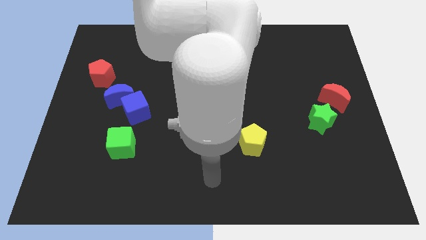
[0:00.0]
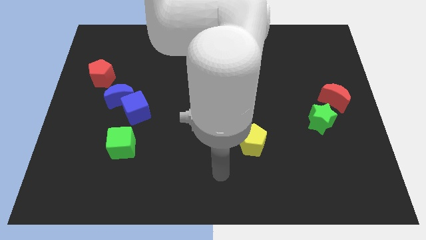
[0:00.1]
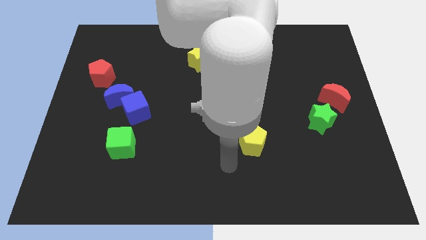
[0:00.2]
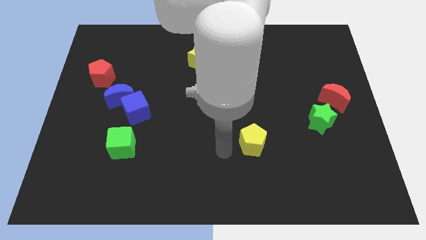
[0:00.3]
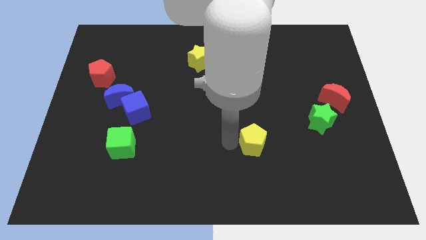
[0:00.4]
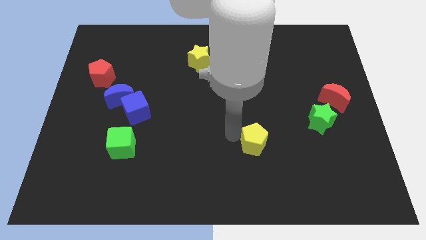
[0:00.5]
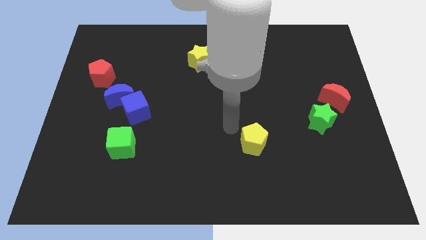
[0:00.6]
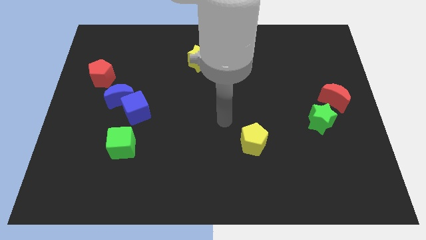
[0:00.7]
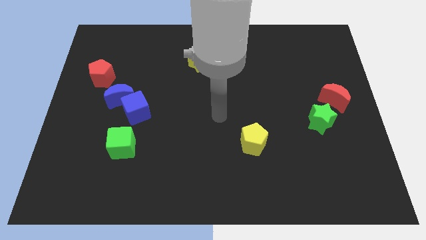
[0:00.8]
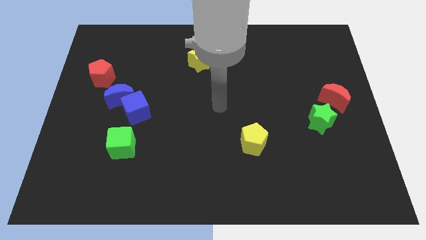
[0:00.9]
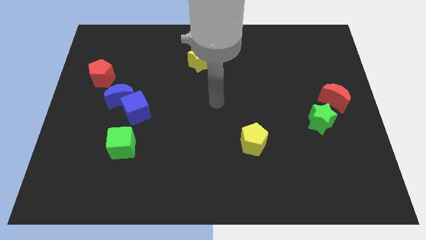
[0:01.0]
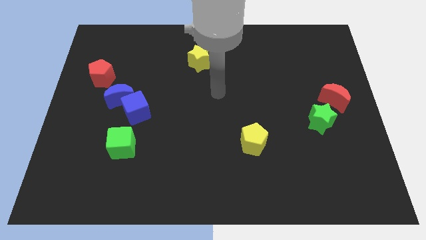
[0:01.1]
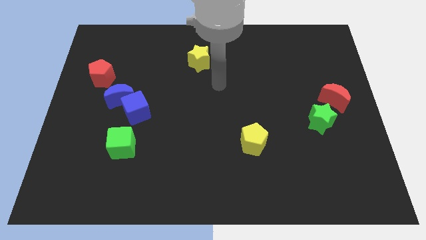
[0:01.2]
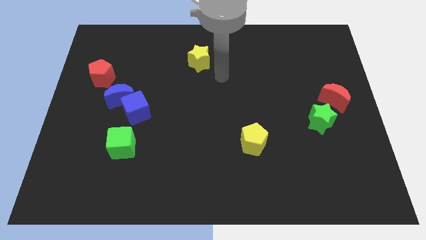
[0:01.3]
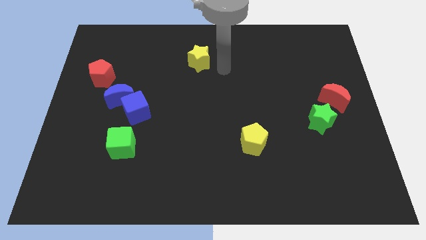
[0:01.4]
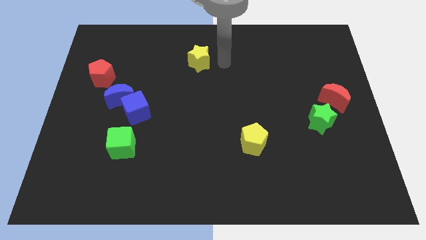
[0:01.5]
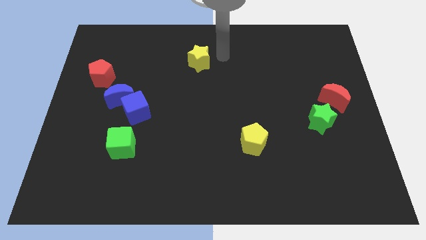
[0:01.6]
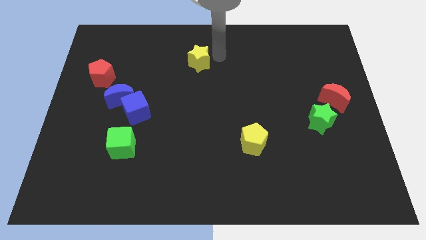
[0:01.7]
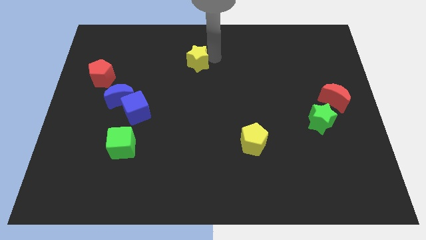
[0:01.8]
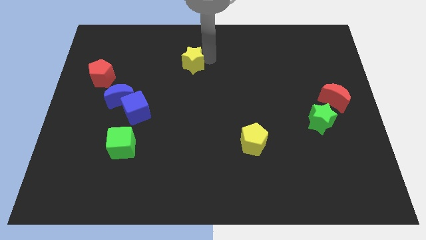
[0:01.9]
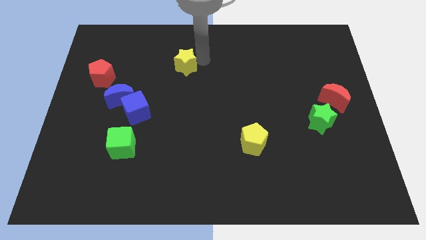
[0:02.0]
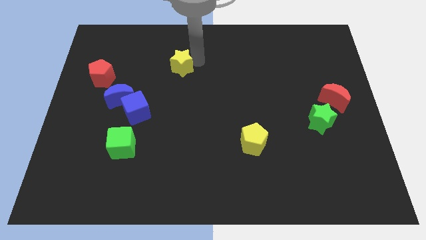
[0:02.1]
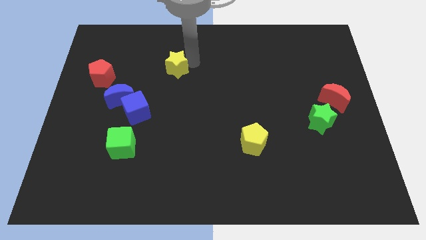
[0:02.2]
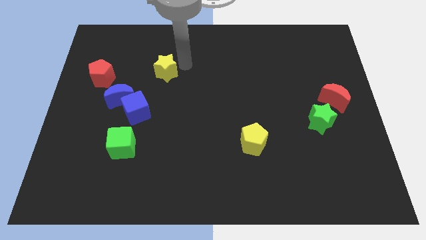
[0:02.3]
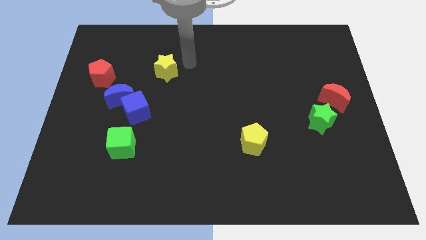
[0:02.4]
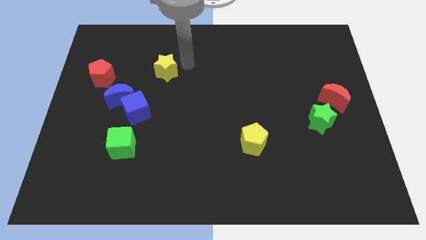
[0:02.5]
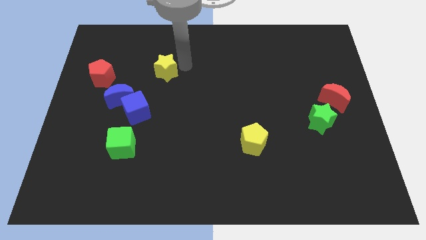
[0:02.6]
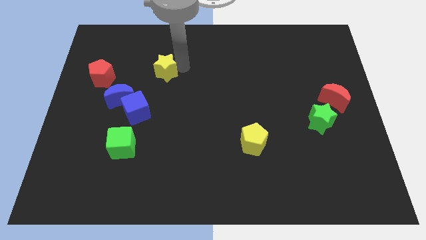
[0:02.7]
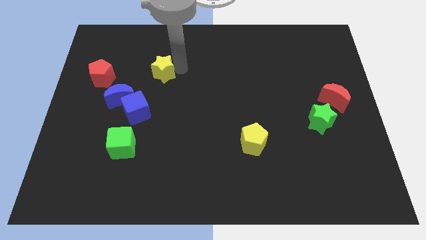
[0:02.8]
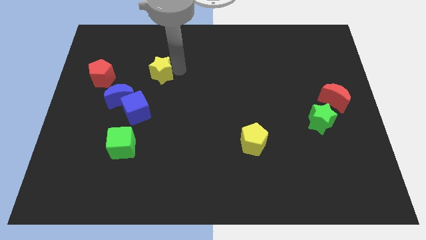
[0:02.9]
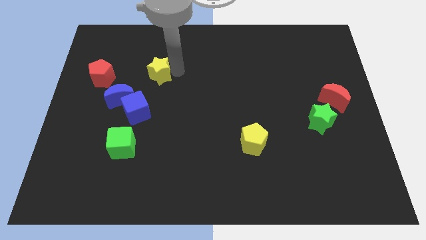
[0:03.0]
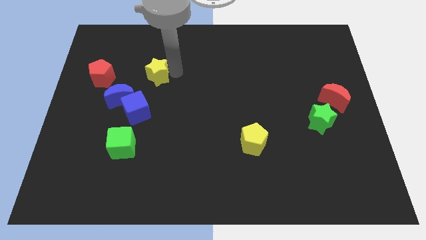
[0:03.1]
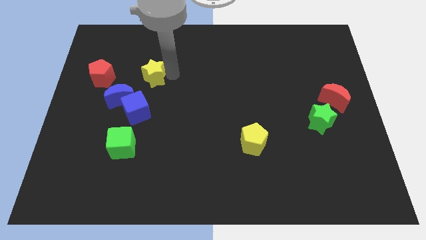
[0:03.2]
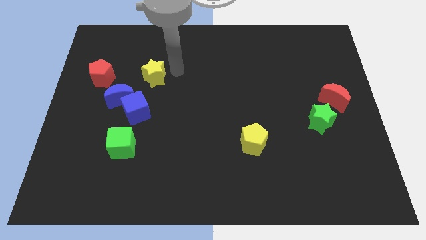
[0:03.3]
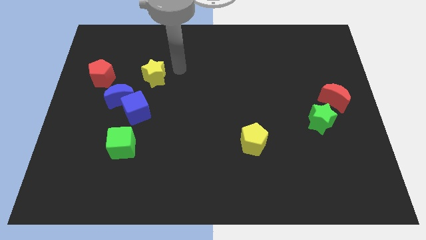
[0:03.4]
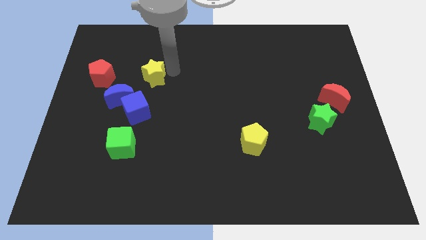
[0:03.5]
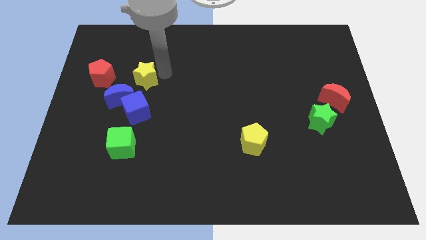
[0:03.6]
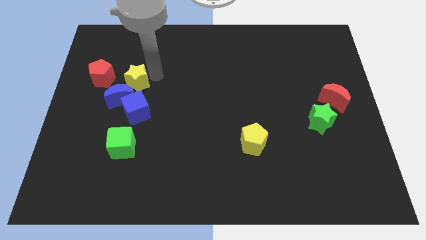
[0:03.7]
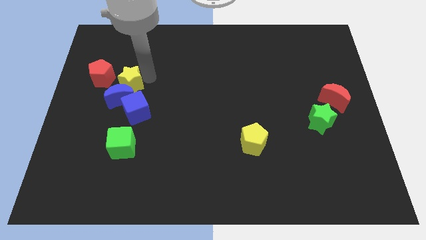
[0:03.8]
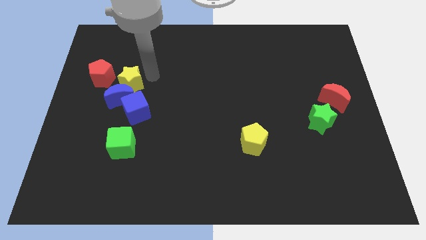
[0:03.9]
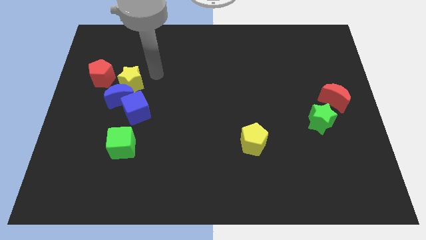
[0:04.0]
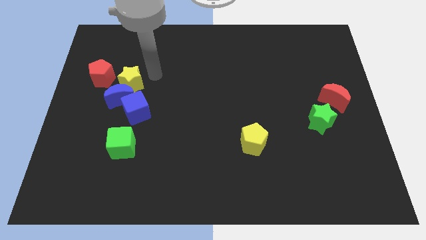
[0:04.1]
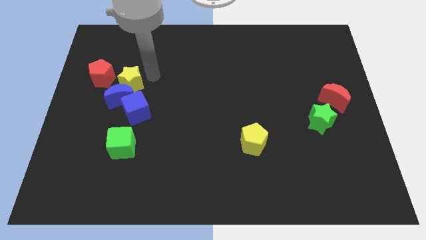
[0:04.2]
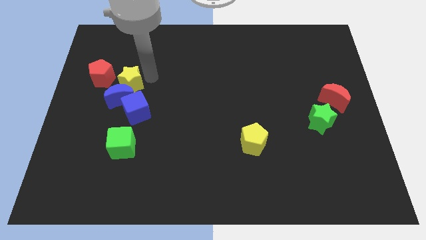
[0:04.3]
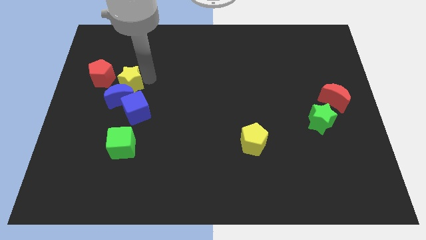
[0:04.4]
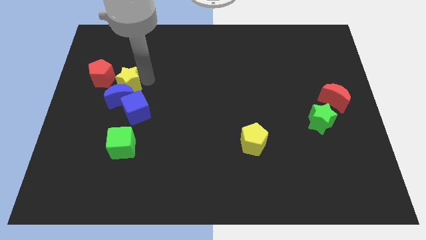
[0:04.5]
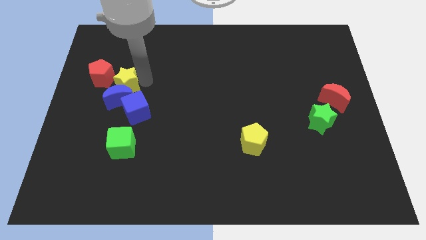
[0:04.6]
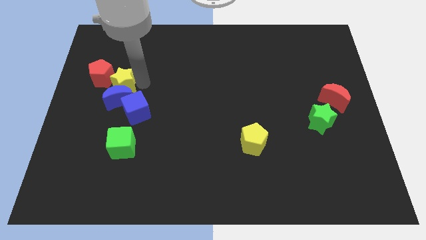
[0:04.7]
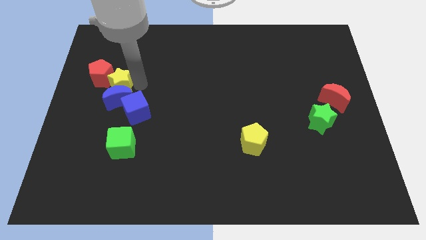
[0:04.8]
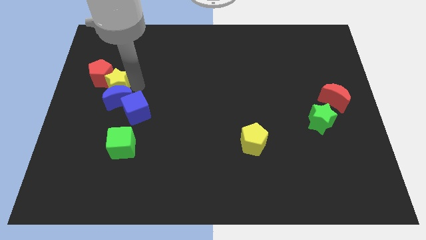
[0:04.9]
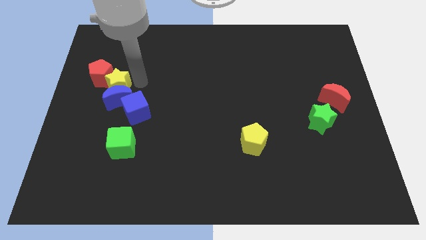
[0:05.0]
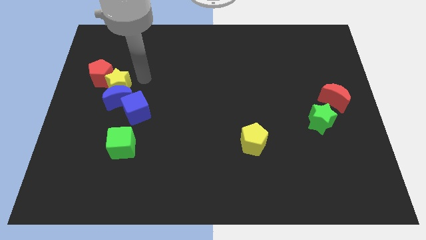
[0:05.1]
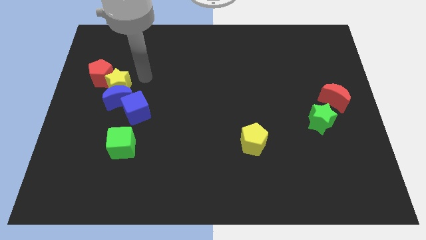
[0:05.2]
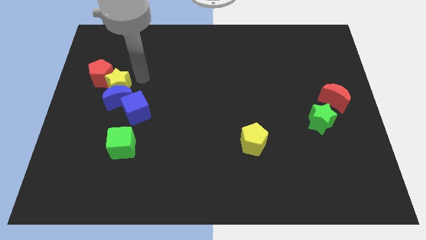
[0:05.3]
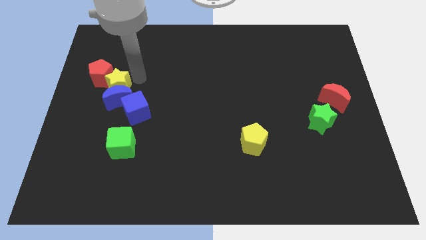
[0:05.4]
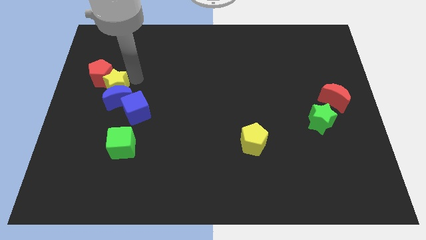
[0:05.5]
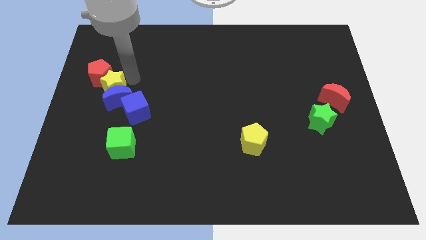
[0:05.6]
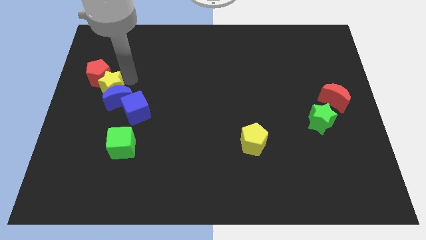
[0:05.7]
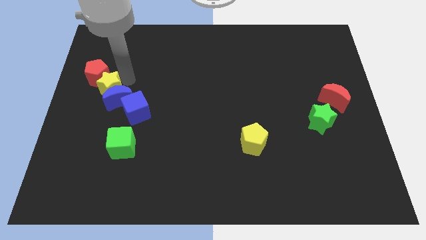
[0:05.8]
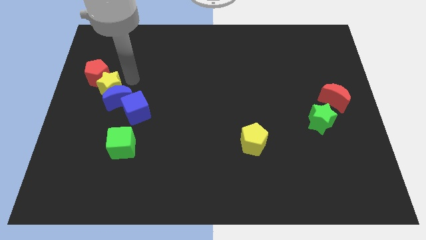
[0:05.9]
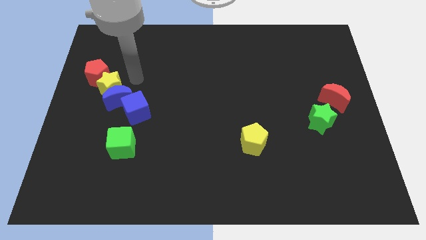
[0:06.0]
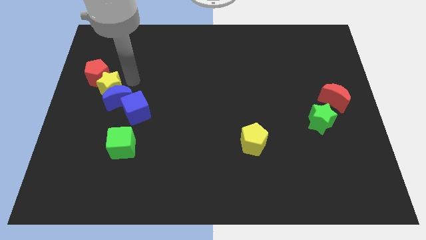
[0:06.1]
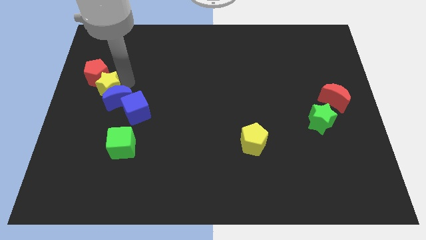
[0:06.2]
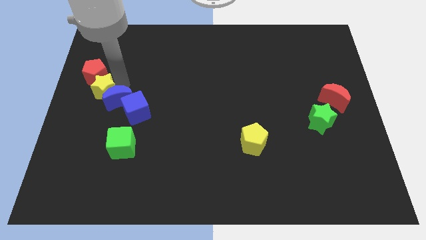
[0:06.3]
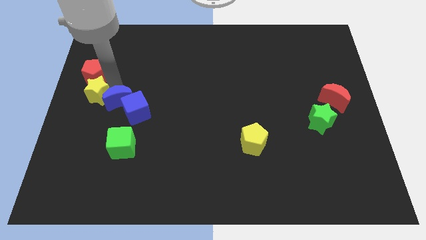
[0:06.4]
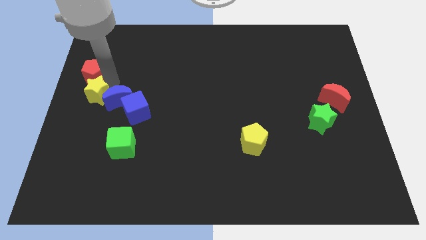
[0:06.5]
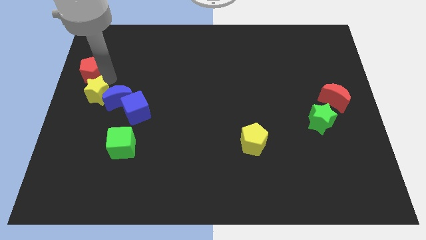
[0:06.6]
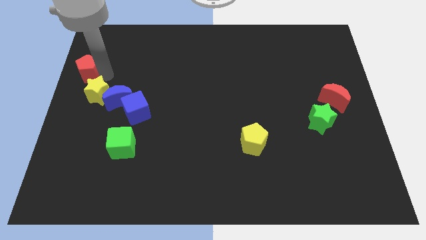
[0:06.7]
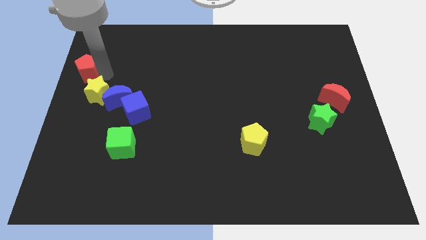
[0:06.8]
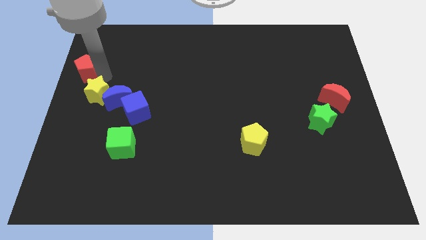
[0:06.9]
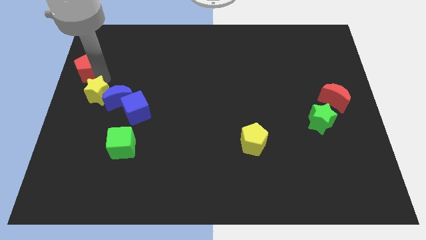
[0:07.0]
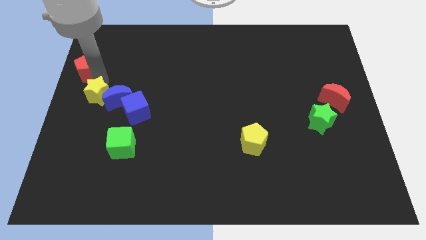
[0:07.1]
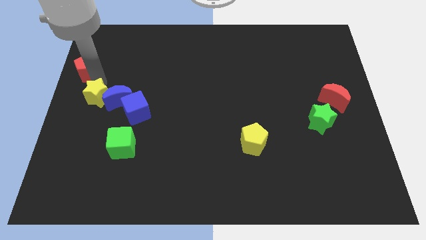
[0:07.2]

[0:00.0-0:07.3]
move the yellow star just left of the blue cube
